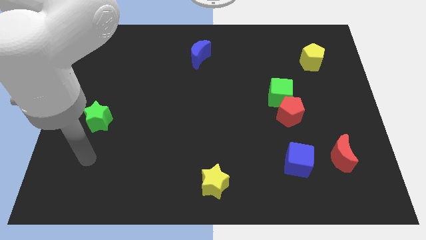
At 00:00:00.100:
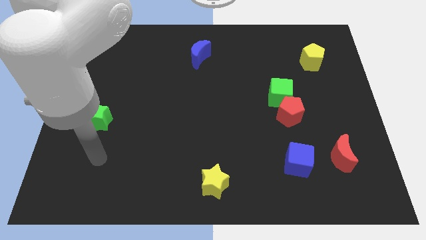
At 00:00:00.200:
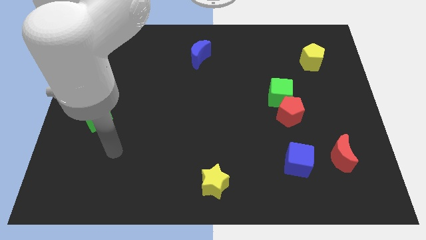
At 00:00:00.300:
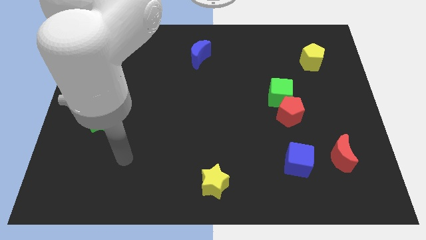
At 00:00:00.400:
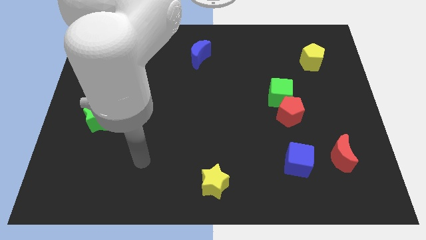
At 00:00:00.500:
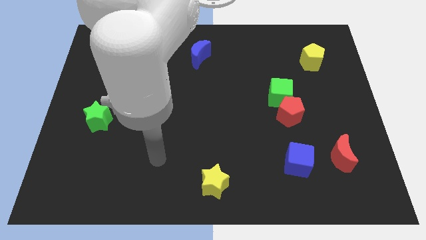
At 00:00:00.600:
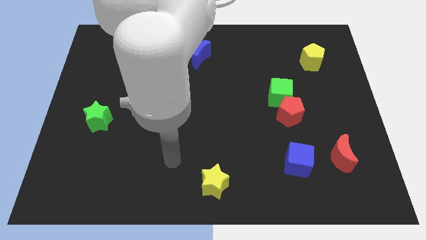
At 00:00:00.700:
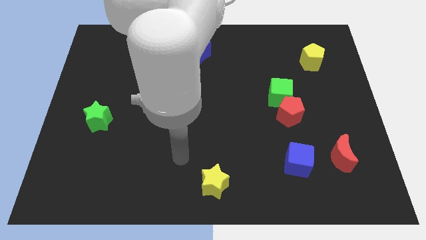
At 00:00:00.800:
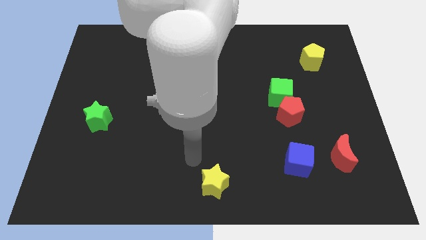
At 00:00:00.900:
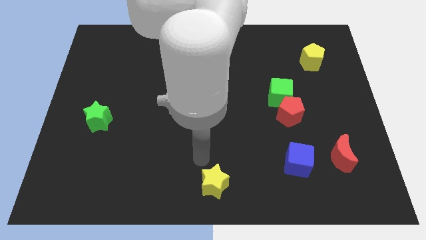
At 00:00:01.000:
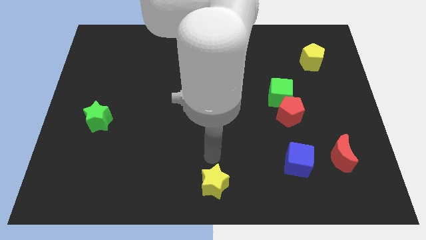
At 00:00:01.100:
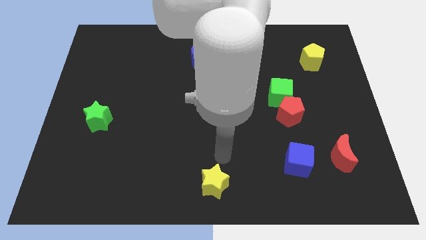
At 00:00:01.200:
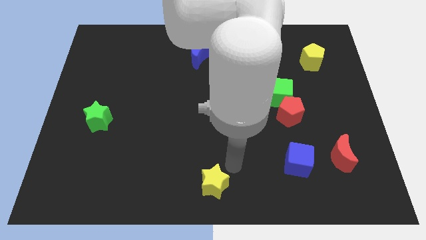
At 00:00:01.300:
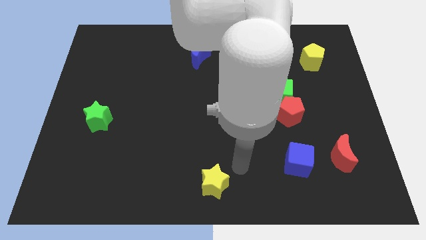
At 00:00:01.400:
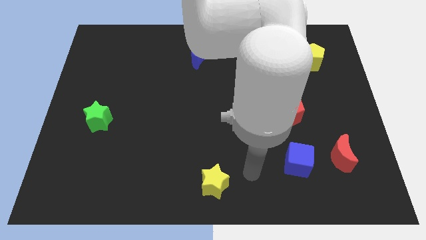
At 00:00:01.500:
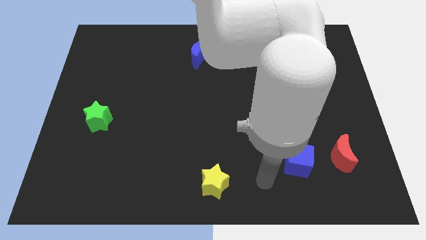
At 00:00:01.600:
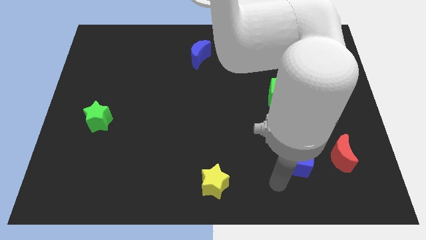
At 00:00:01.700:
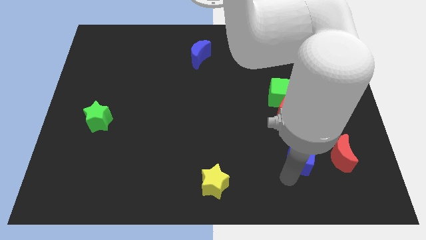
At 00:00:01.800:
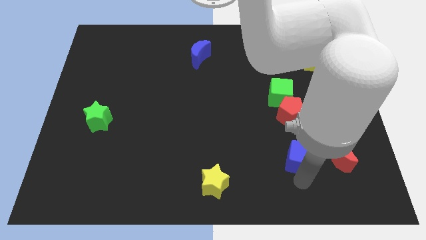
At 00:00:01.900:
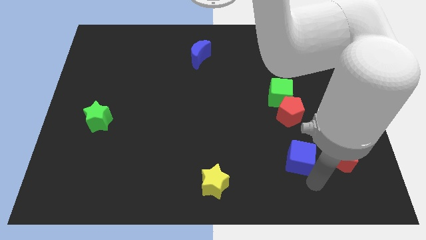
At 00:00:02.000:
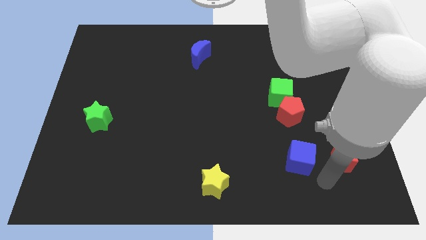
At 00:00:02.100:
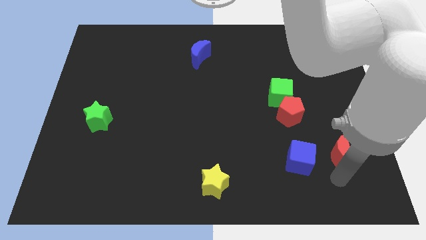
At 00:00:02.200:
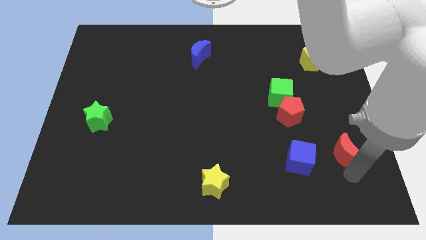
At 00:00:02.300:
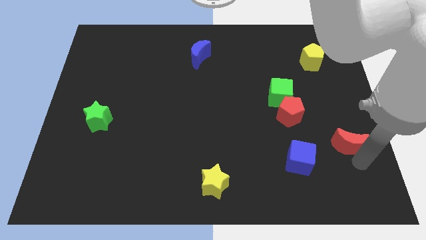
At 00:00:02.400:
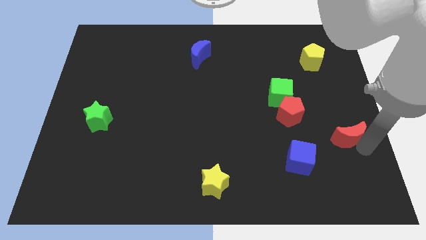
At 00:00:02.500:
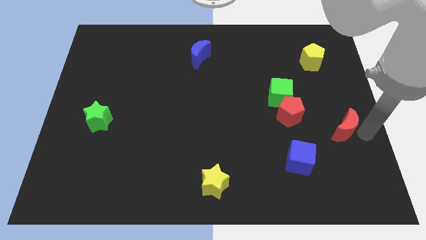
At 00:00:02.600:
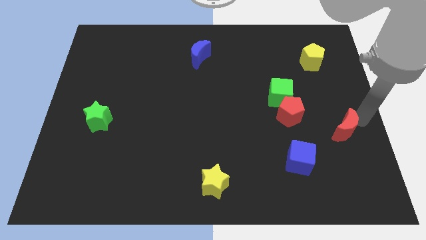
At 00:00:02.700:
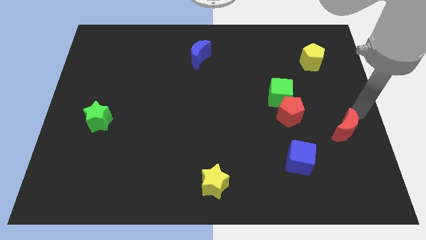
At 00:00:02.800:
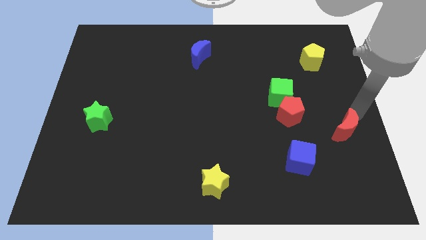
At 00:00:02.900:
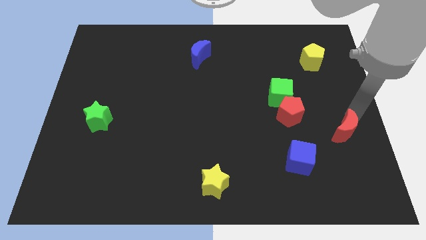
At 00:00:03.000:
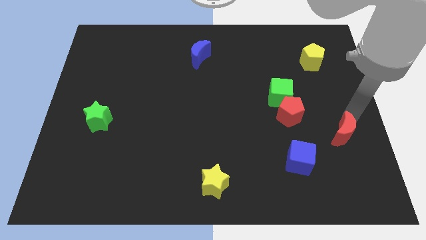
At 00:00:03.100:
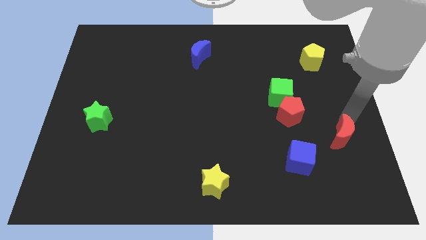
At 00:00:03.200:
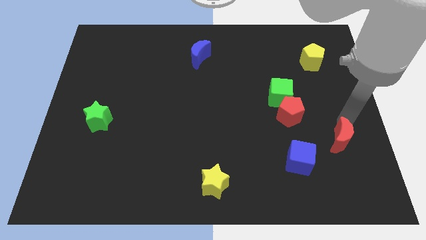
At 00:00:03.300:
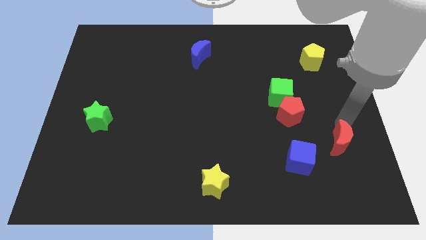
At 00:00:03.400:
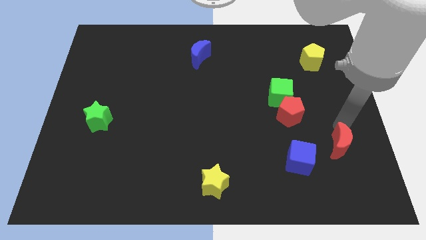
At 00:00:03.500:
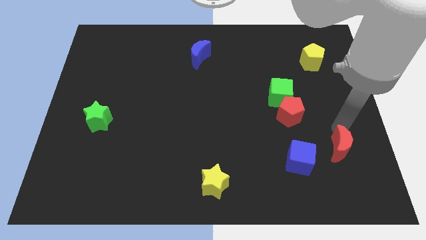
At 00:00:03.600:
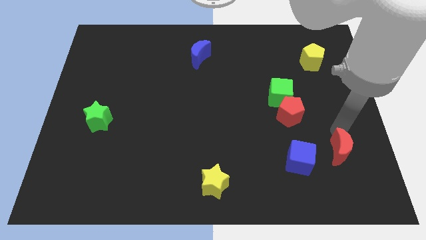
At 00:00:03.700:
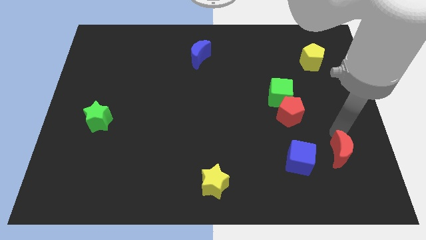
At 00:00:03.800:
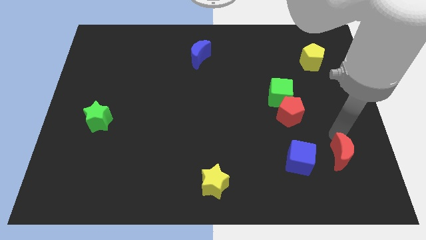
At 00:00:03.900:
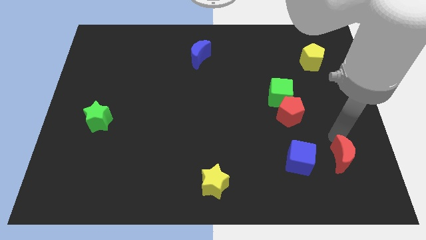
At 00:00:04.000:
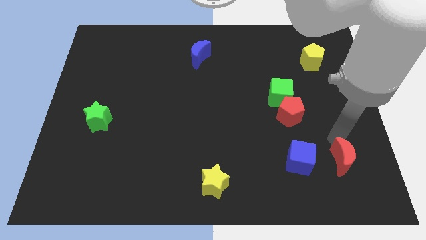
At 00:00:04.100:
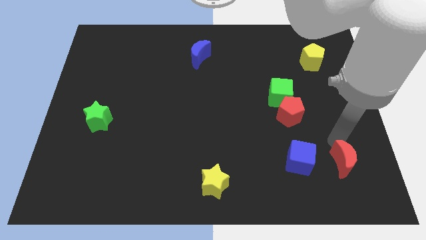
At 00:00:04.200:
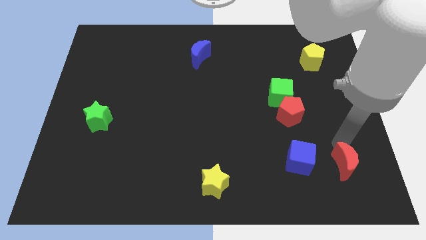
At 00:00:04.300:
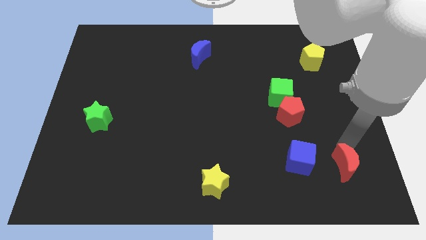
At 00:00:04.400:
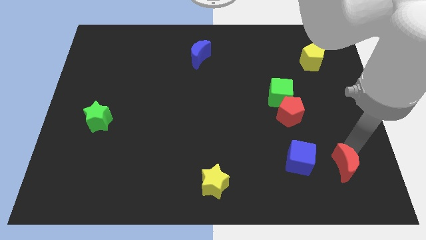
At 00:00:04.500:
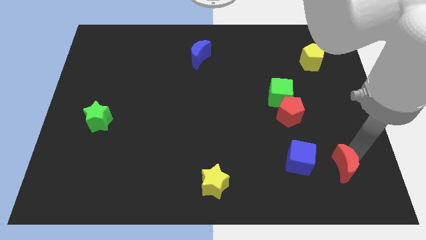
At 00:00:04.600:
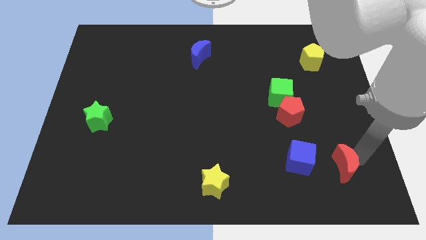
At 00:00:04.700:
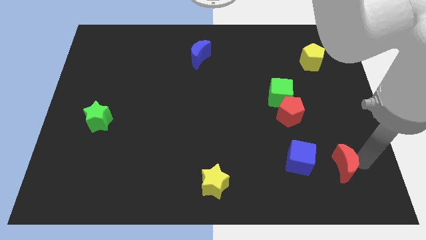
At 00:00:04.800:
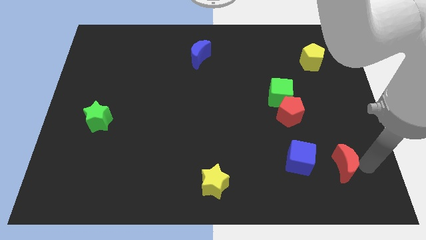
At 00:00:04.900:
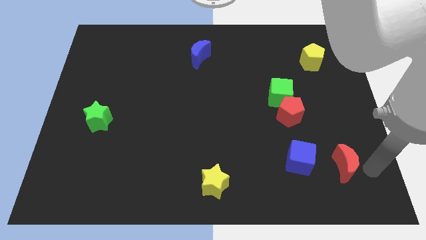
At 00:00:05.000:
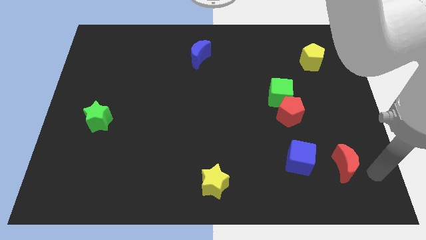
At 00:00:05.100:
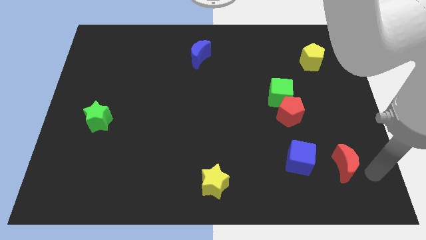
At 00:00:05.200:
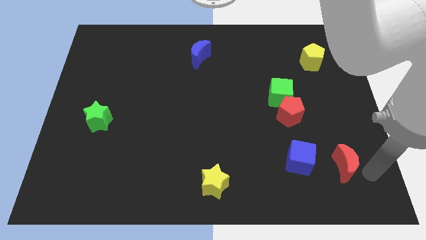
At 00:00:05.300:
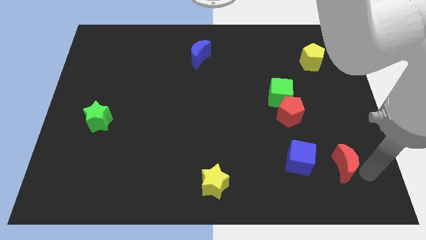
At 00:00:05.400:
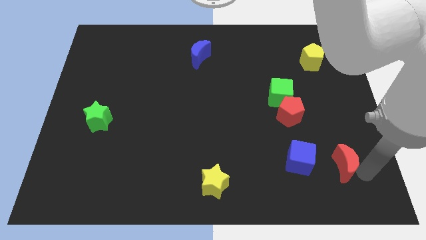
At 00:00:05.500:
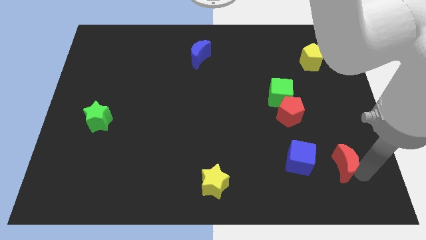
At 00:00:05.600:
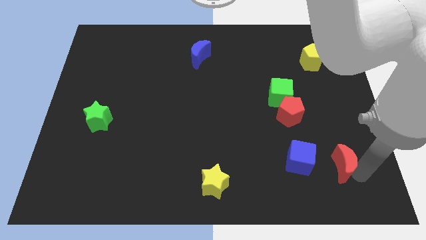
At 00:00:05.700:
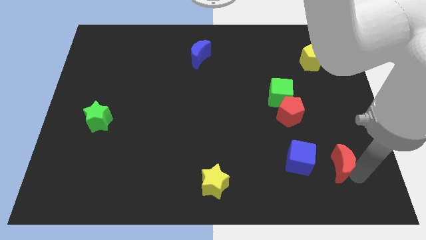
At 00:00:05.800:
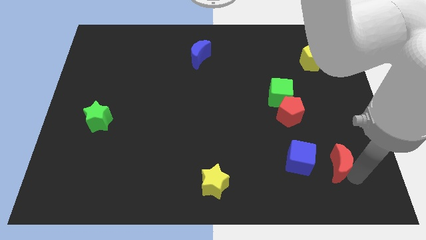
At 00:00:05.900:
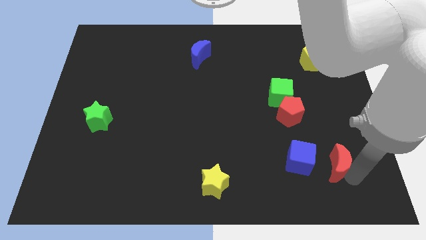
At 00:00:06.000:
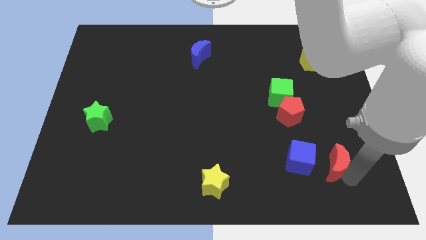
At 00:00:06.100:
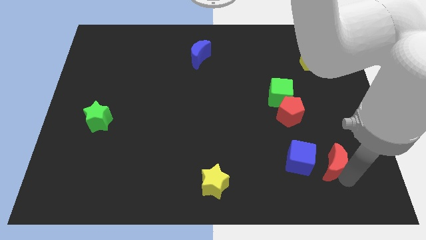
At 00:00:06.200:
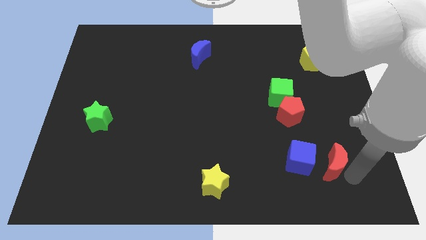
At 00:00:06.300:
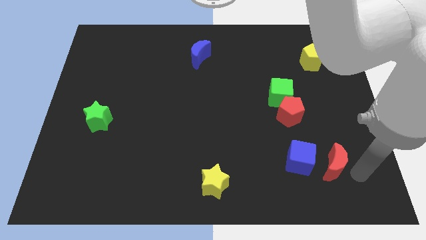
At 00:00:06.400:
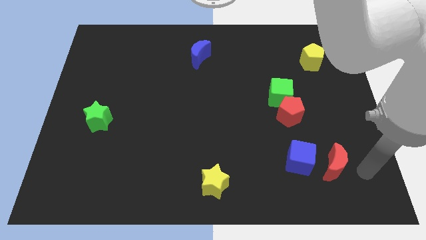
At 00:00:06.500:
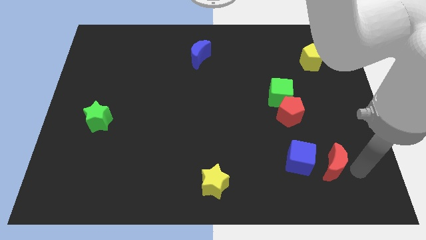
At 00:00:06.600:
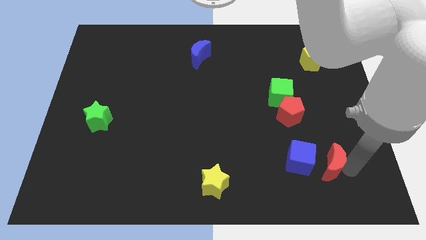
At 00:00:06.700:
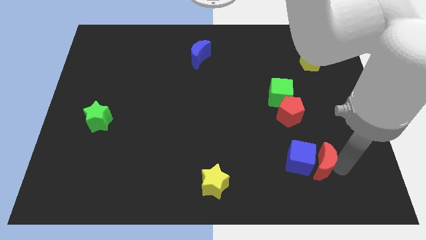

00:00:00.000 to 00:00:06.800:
push the red moon towards the blue cube

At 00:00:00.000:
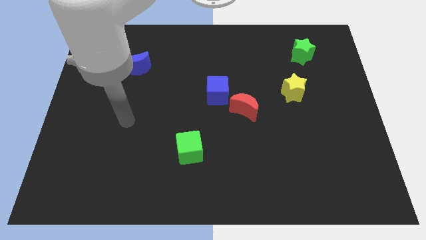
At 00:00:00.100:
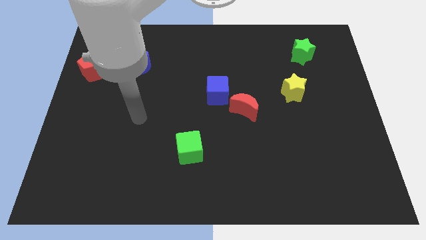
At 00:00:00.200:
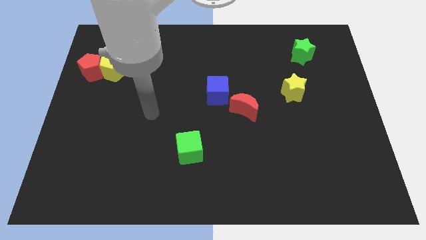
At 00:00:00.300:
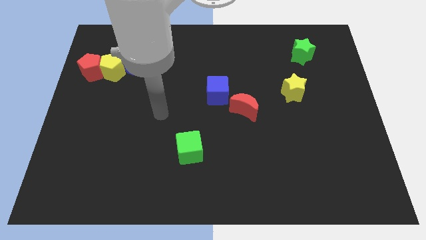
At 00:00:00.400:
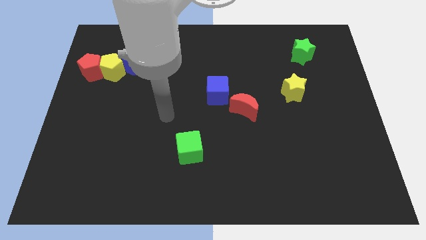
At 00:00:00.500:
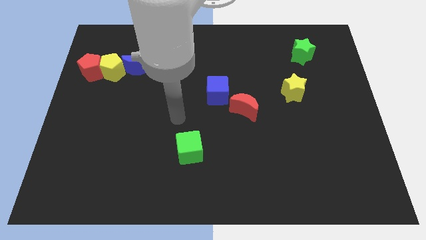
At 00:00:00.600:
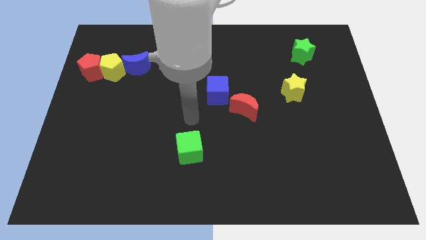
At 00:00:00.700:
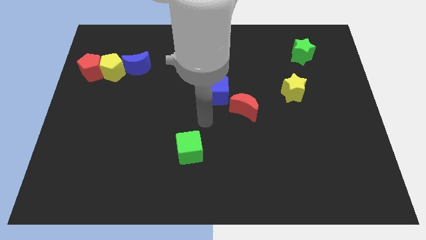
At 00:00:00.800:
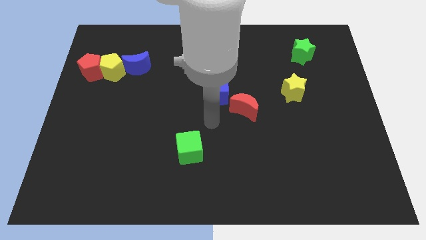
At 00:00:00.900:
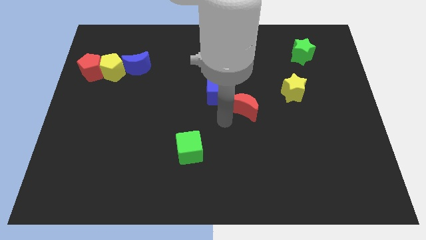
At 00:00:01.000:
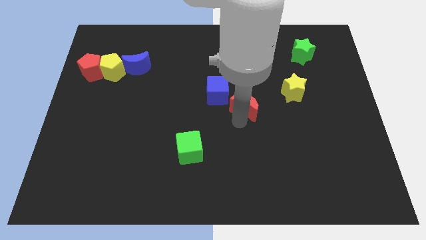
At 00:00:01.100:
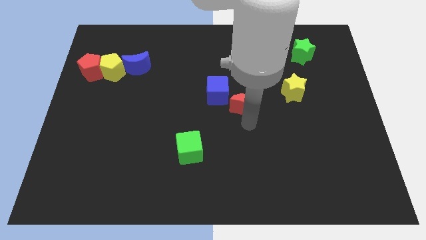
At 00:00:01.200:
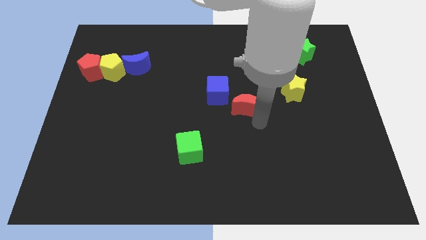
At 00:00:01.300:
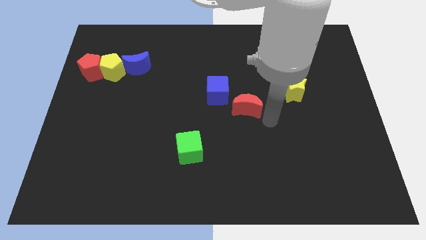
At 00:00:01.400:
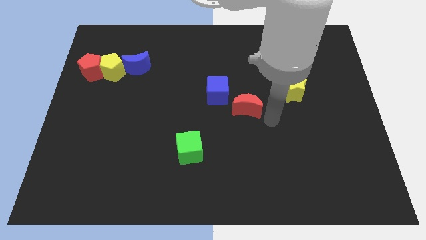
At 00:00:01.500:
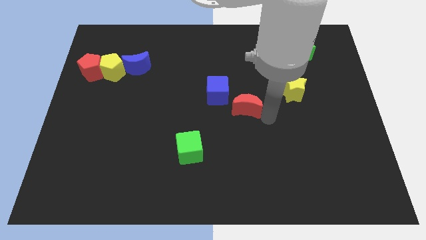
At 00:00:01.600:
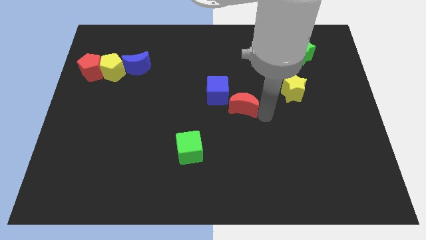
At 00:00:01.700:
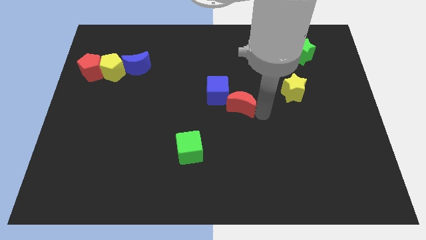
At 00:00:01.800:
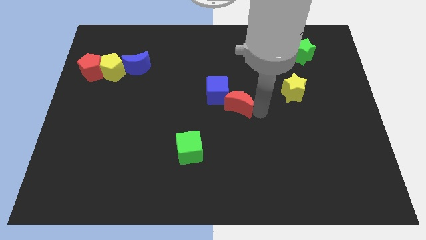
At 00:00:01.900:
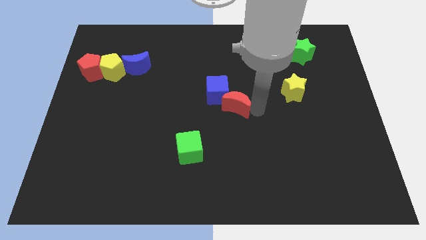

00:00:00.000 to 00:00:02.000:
slide the red moon to the blue cube
